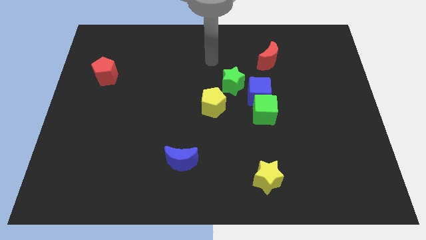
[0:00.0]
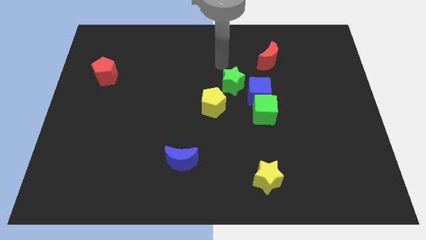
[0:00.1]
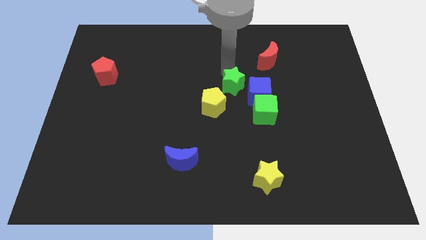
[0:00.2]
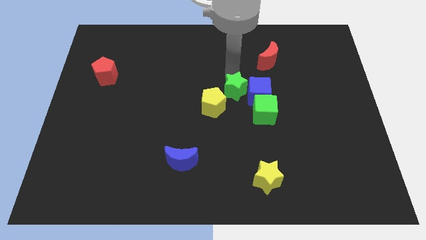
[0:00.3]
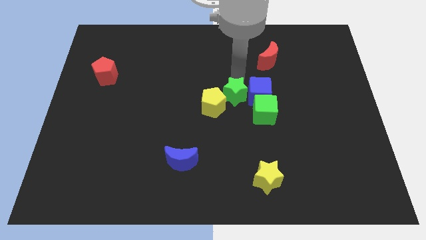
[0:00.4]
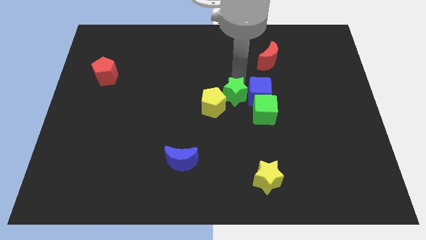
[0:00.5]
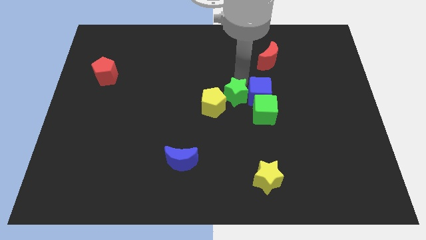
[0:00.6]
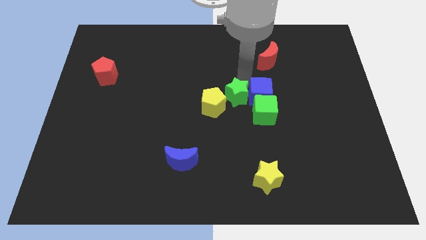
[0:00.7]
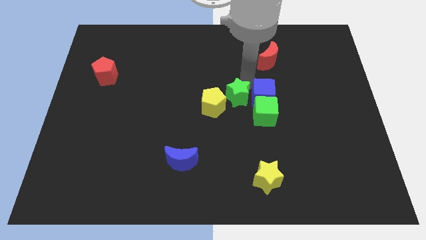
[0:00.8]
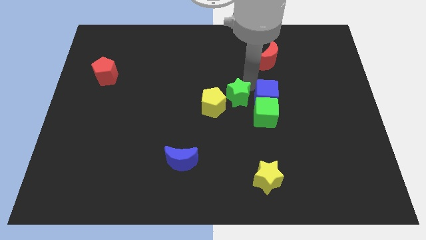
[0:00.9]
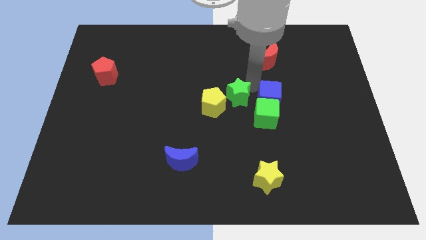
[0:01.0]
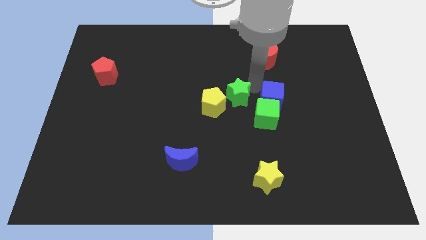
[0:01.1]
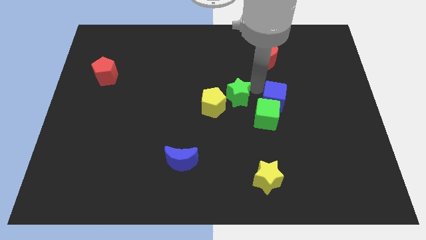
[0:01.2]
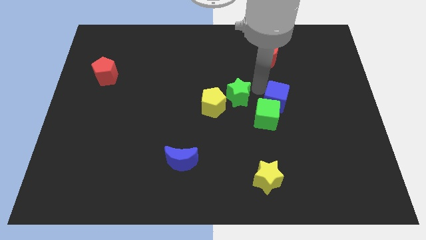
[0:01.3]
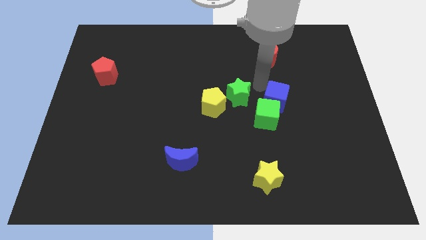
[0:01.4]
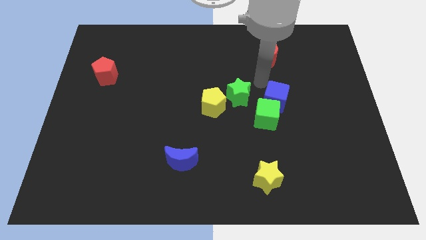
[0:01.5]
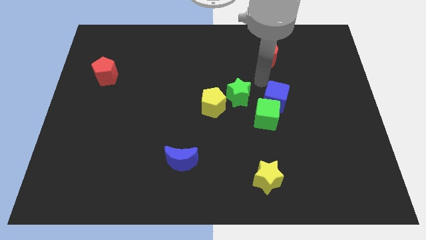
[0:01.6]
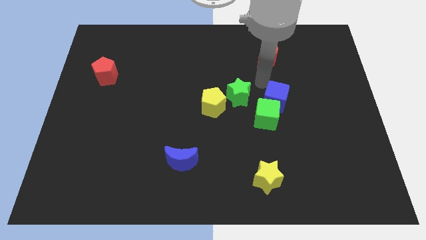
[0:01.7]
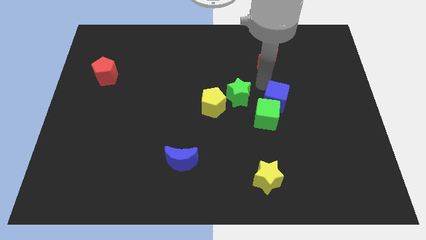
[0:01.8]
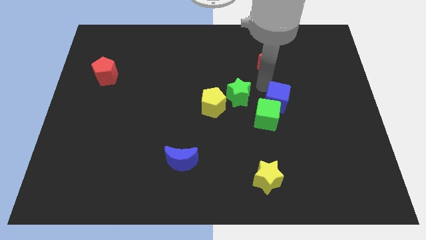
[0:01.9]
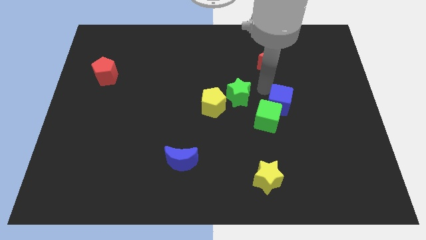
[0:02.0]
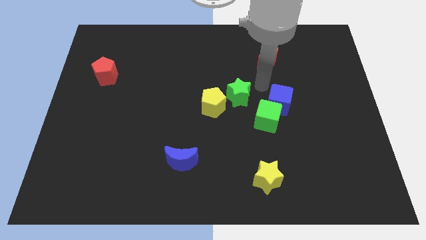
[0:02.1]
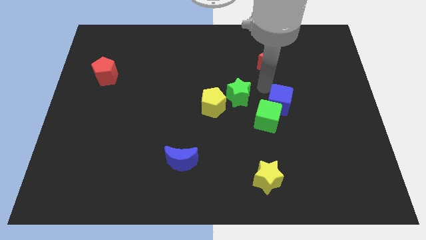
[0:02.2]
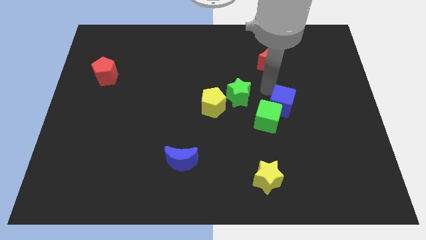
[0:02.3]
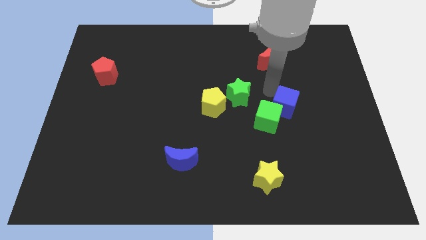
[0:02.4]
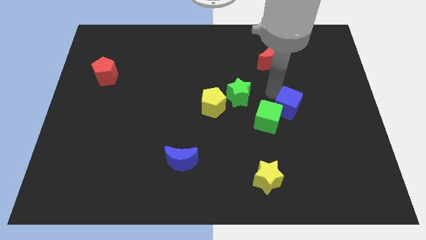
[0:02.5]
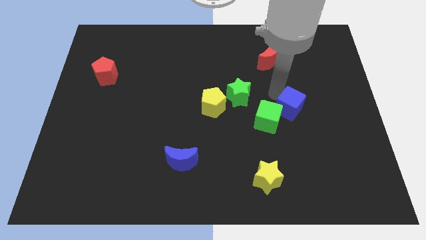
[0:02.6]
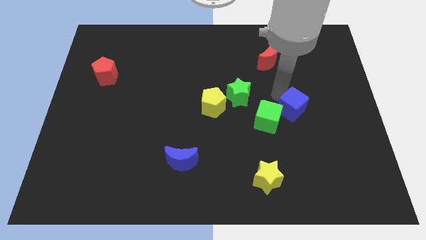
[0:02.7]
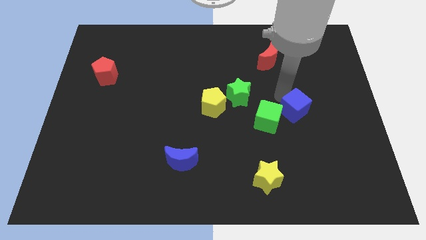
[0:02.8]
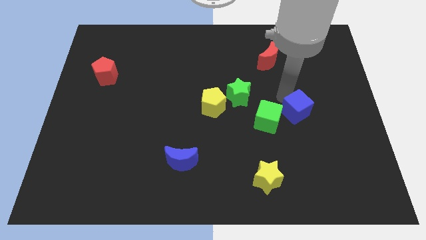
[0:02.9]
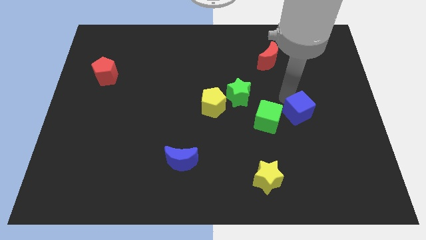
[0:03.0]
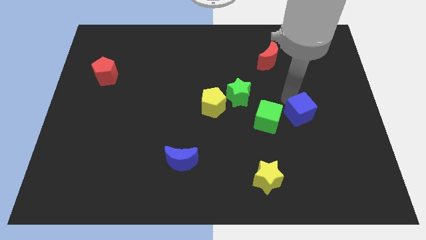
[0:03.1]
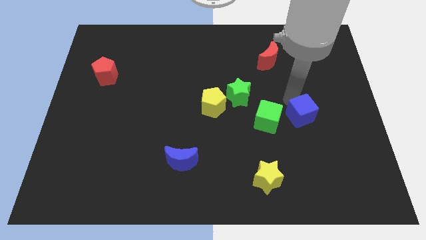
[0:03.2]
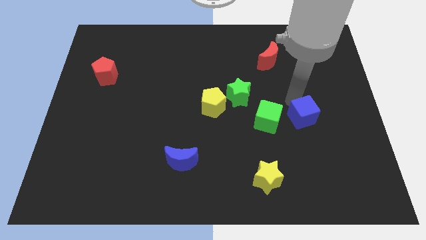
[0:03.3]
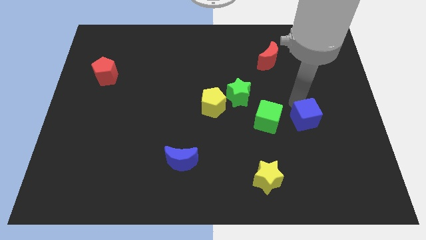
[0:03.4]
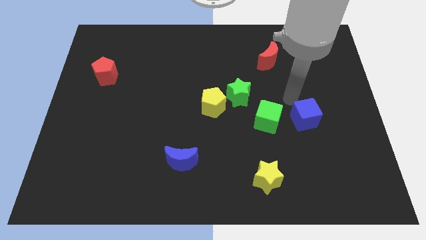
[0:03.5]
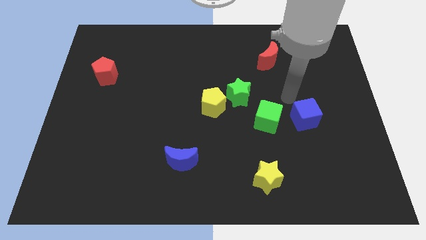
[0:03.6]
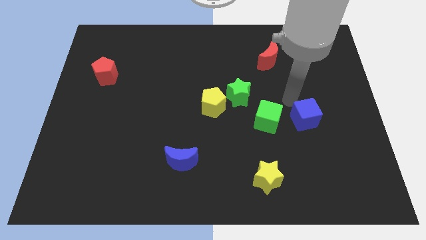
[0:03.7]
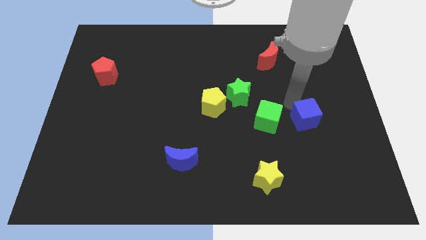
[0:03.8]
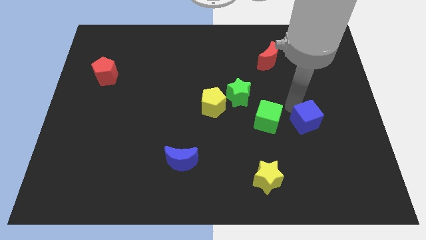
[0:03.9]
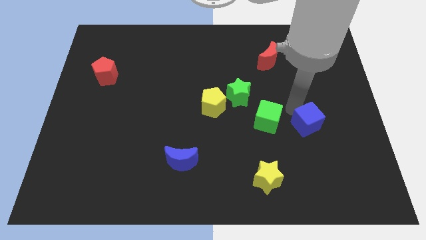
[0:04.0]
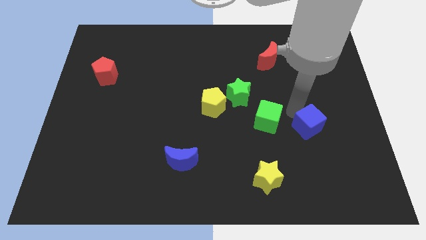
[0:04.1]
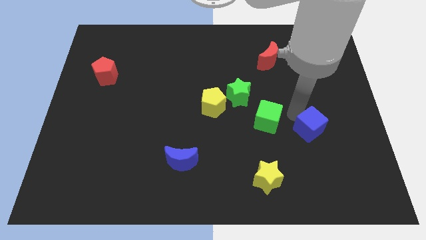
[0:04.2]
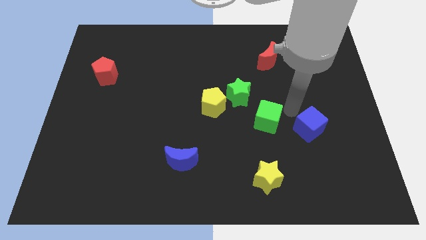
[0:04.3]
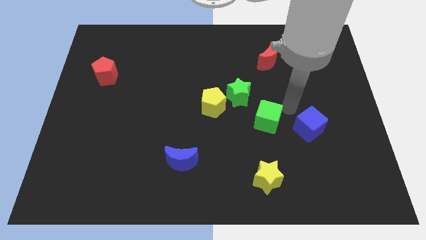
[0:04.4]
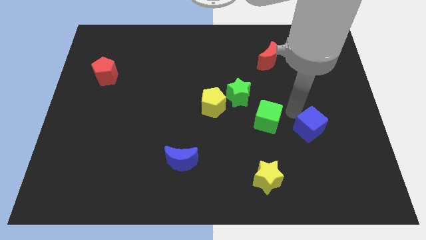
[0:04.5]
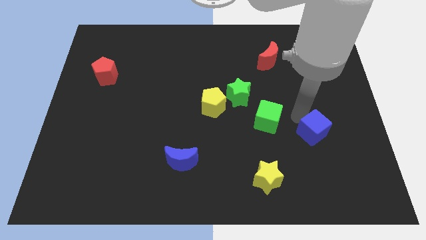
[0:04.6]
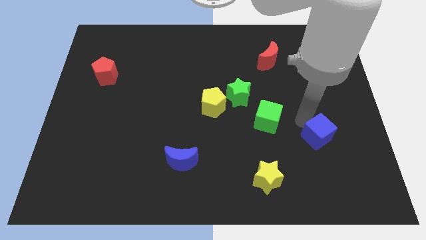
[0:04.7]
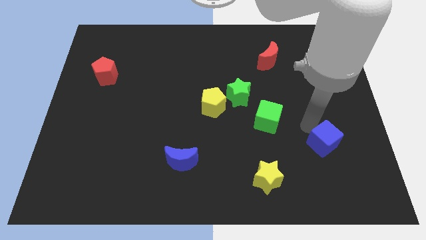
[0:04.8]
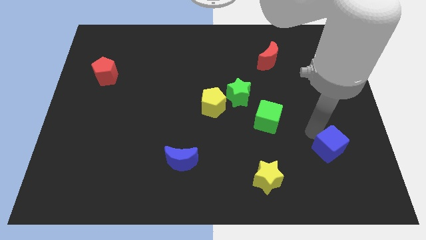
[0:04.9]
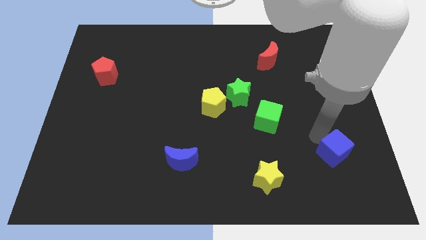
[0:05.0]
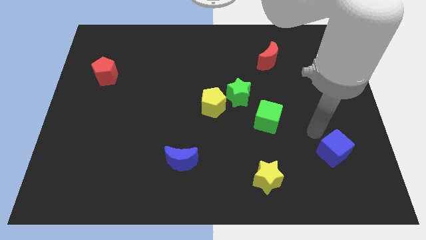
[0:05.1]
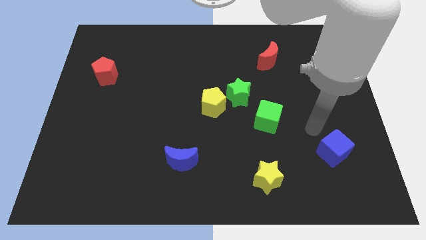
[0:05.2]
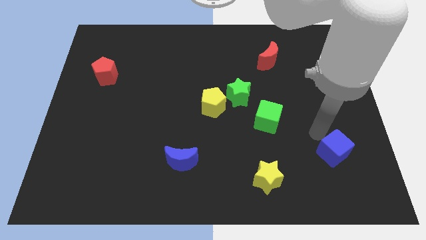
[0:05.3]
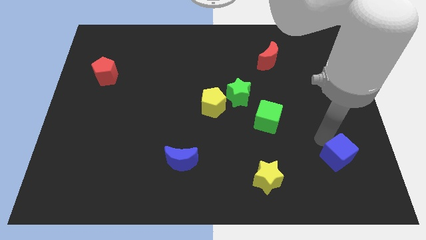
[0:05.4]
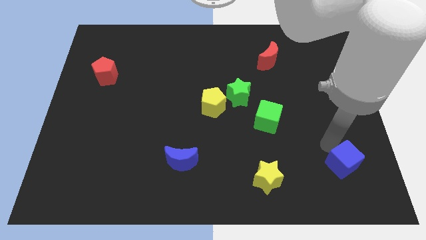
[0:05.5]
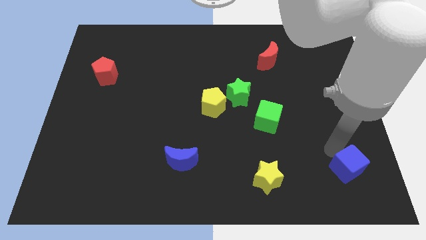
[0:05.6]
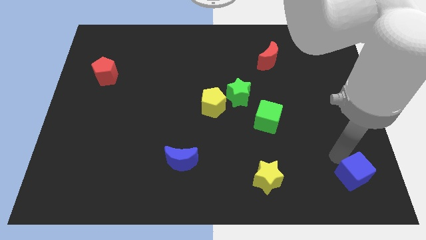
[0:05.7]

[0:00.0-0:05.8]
slide the blue cube to the bottom right

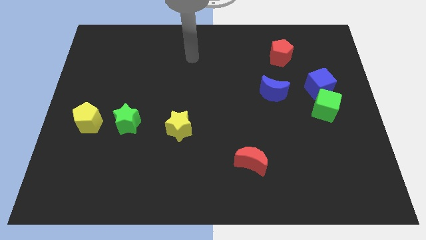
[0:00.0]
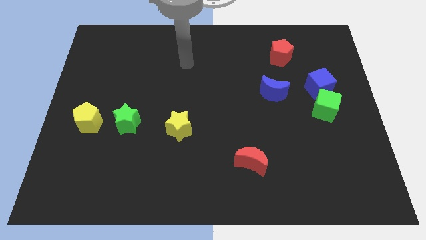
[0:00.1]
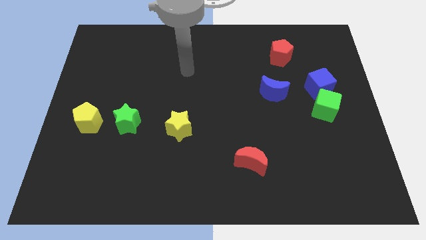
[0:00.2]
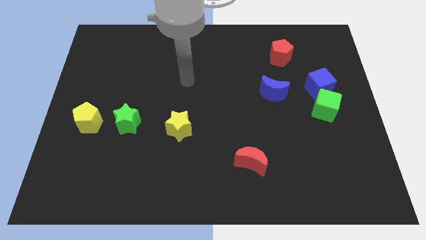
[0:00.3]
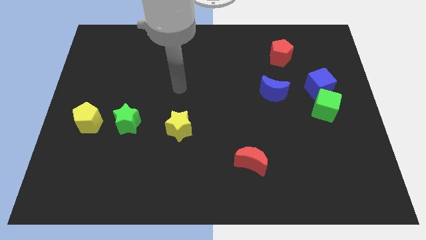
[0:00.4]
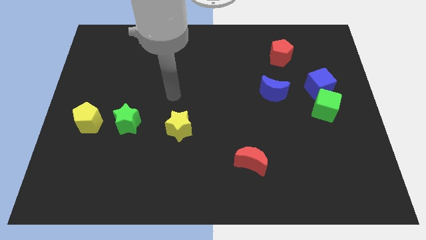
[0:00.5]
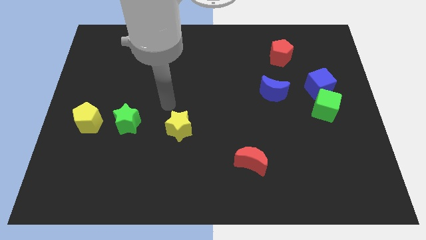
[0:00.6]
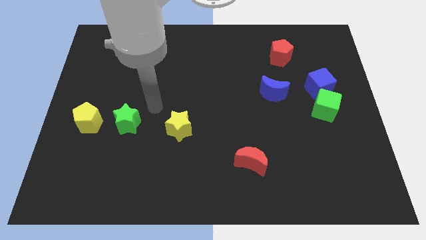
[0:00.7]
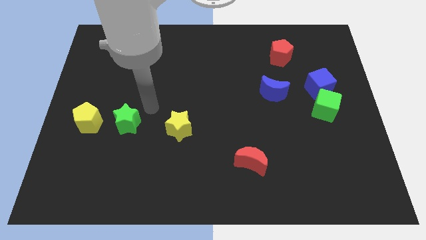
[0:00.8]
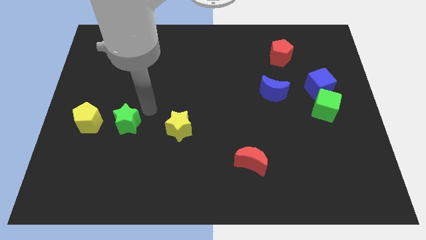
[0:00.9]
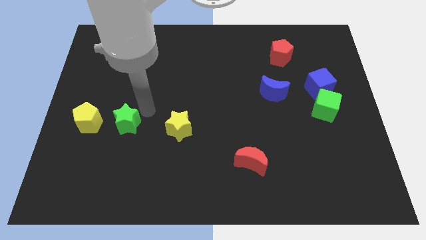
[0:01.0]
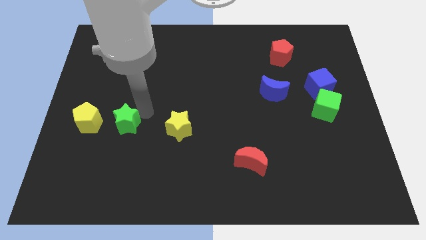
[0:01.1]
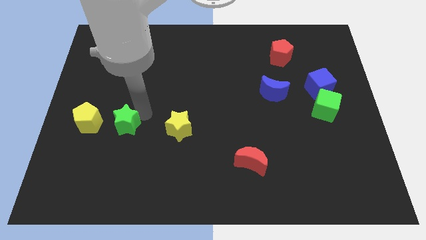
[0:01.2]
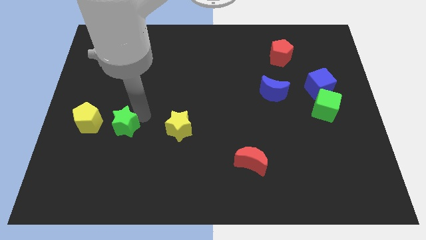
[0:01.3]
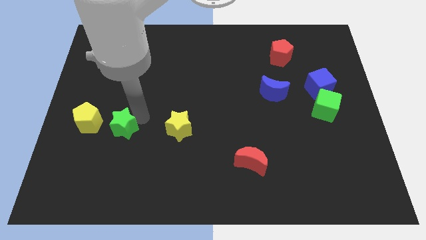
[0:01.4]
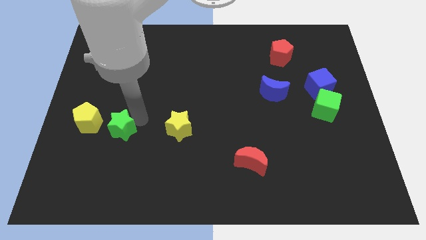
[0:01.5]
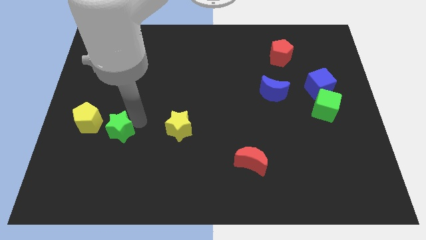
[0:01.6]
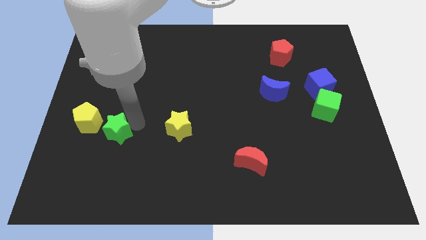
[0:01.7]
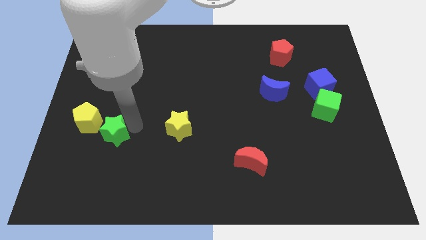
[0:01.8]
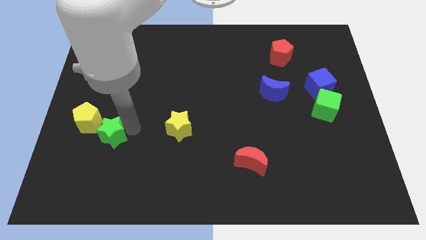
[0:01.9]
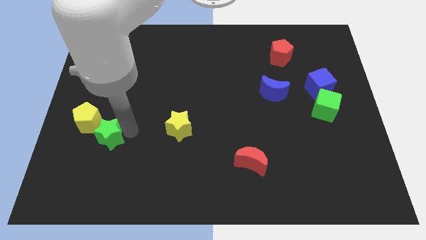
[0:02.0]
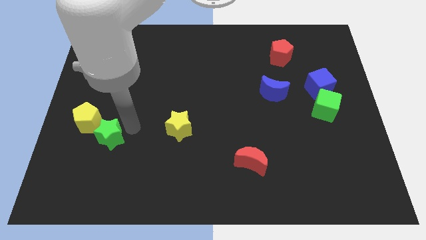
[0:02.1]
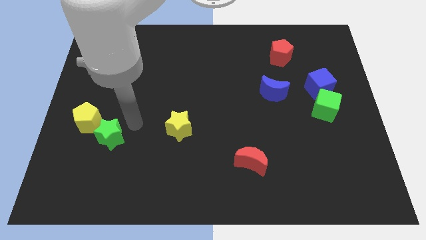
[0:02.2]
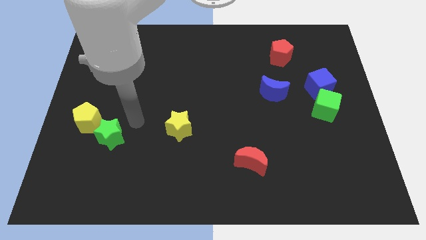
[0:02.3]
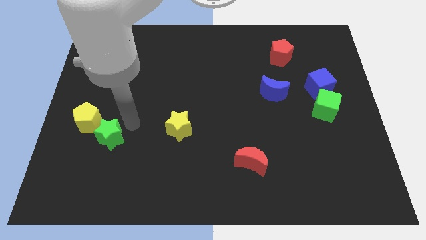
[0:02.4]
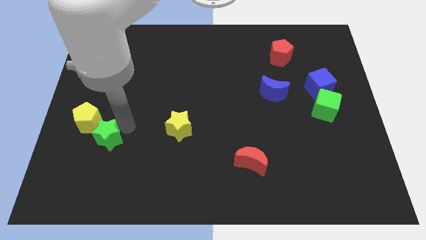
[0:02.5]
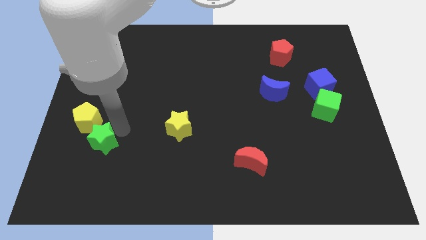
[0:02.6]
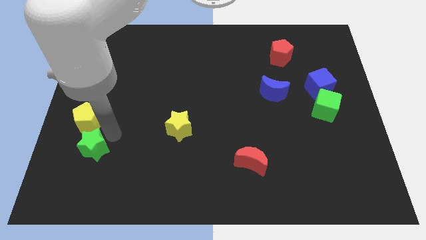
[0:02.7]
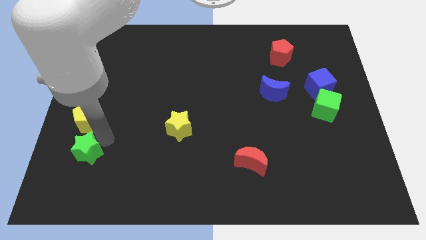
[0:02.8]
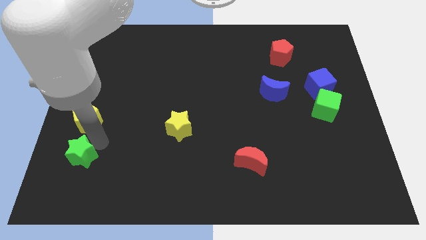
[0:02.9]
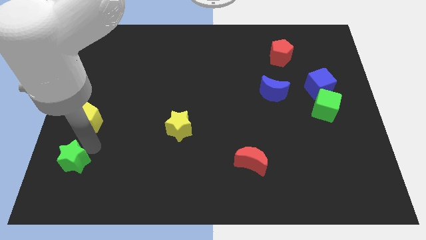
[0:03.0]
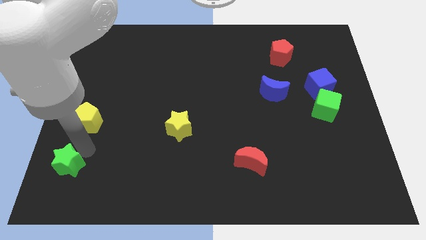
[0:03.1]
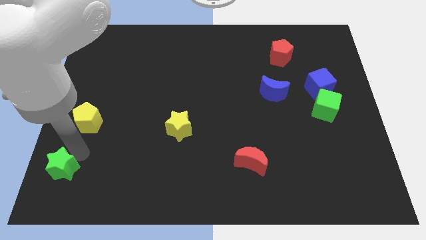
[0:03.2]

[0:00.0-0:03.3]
put the green star to the bottom left of the board
